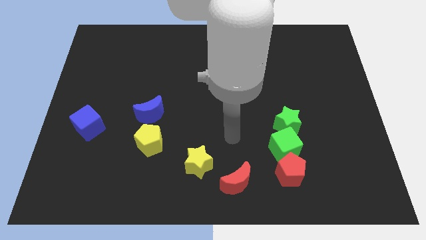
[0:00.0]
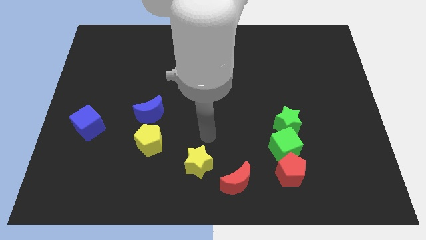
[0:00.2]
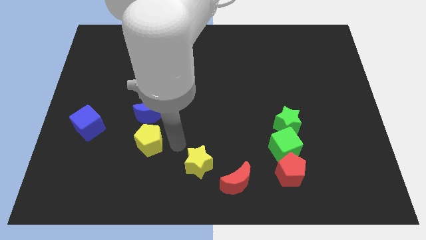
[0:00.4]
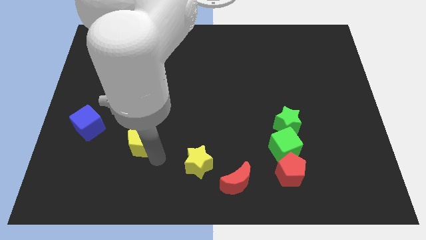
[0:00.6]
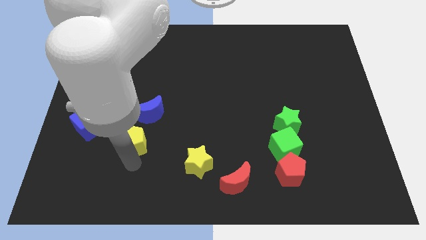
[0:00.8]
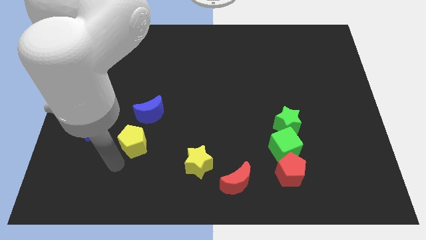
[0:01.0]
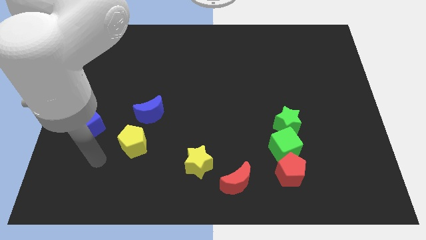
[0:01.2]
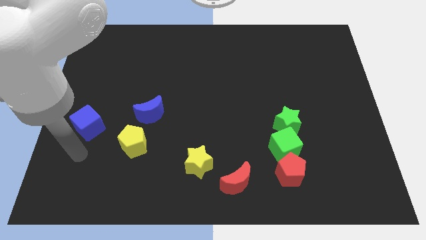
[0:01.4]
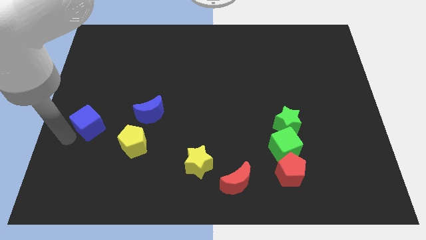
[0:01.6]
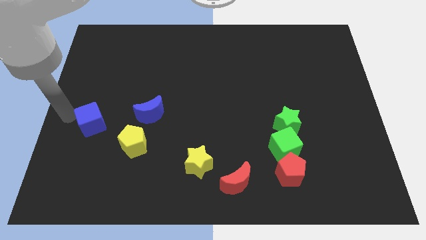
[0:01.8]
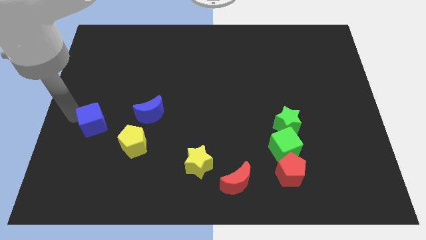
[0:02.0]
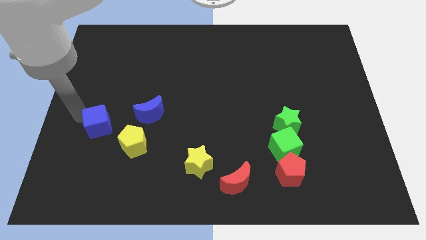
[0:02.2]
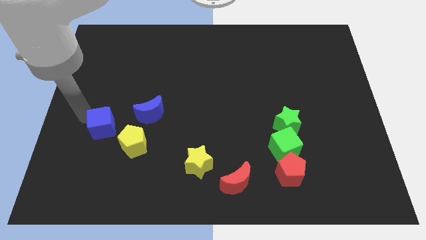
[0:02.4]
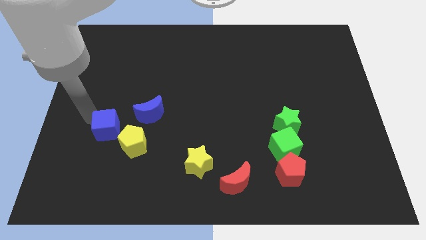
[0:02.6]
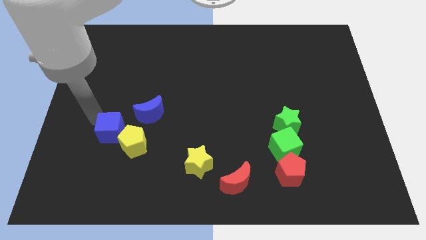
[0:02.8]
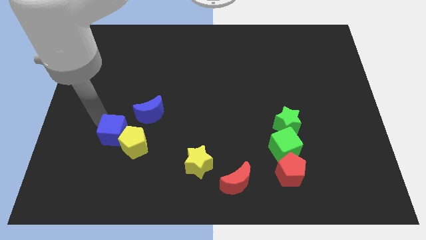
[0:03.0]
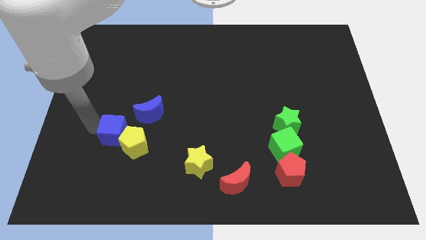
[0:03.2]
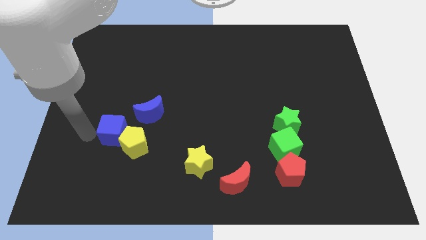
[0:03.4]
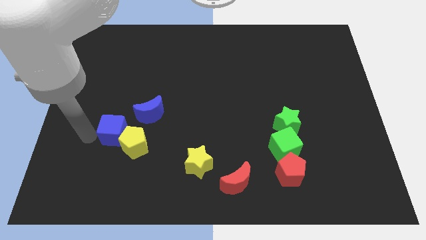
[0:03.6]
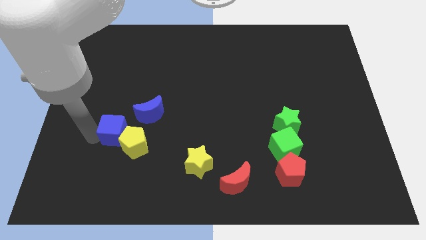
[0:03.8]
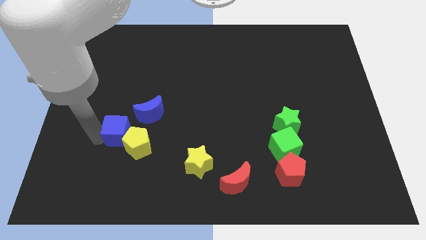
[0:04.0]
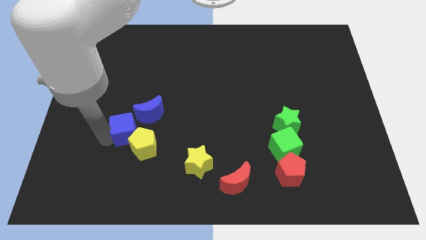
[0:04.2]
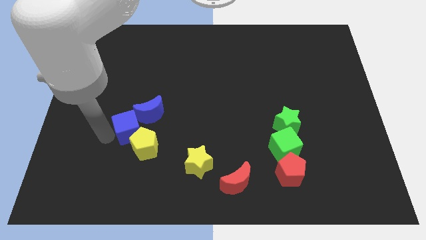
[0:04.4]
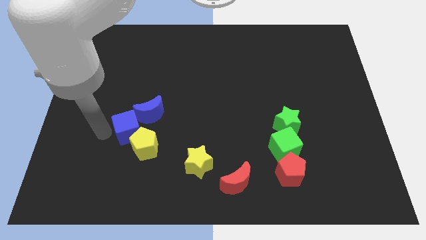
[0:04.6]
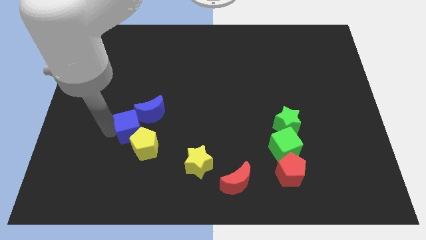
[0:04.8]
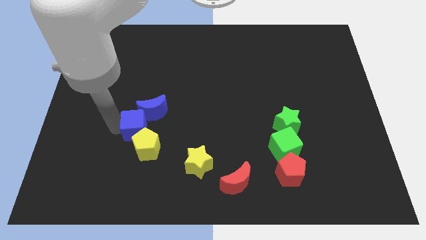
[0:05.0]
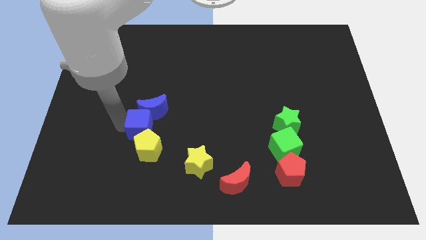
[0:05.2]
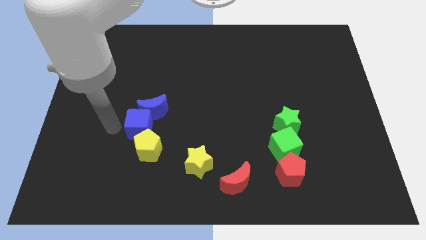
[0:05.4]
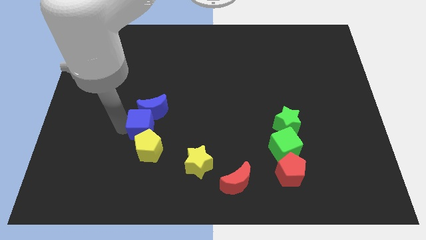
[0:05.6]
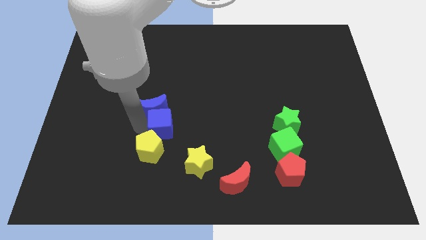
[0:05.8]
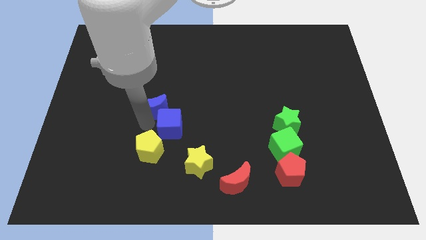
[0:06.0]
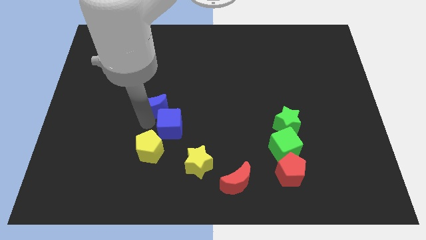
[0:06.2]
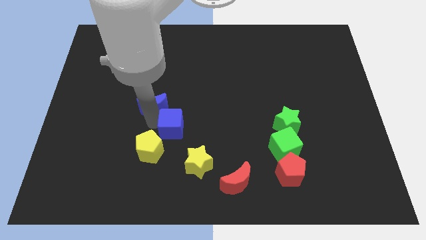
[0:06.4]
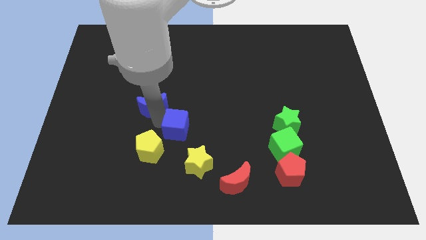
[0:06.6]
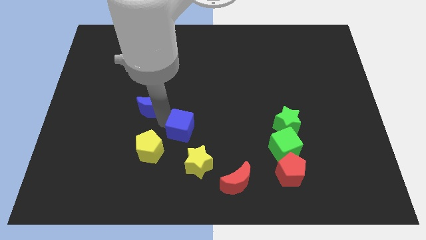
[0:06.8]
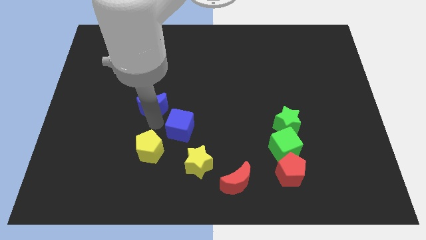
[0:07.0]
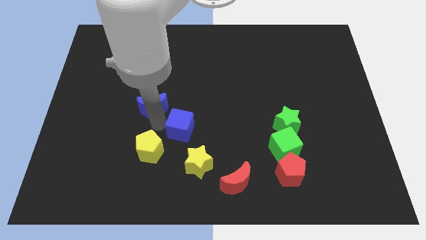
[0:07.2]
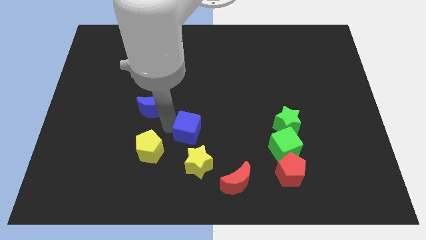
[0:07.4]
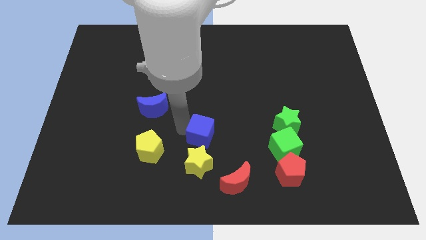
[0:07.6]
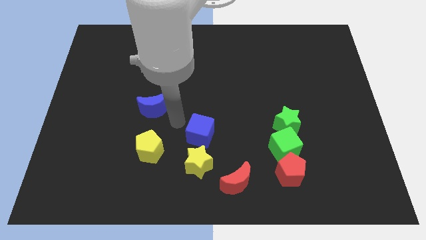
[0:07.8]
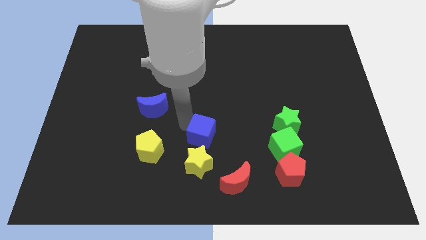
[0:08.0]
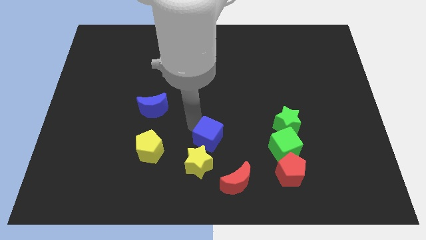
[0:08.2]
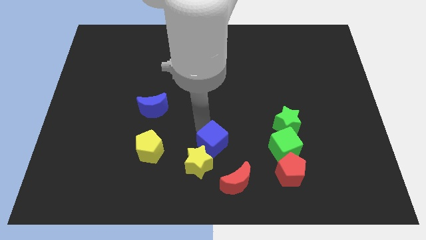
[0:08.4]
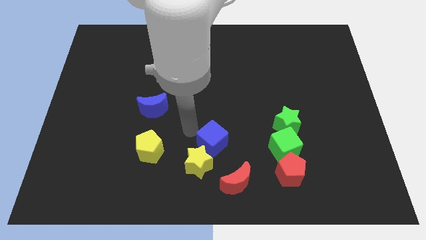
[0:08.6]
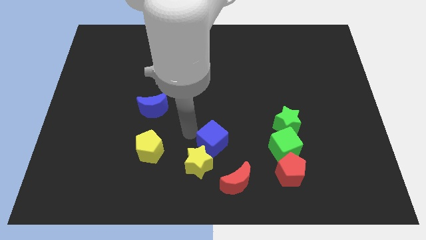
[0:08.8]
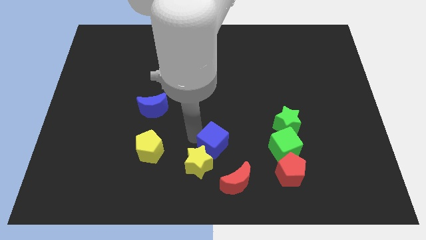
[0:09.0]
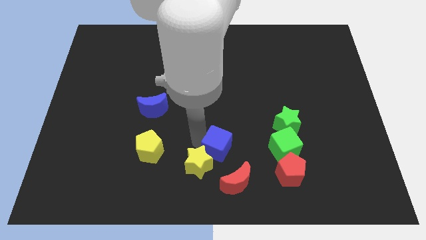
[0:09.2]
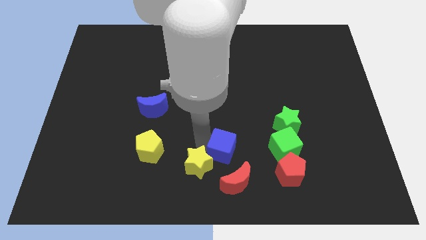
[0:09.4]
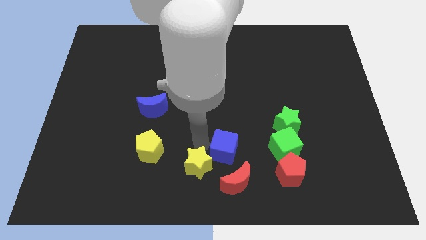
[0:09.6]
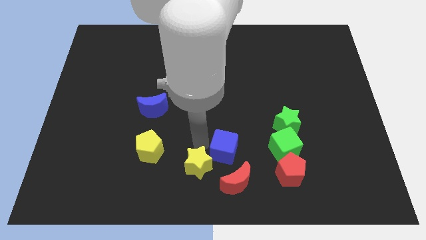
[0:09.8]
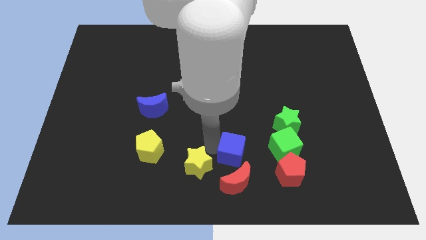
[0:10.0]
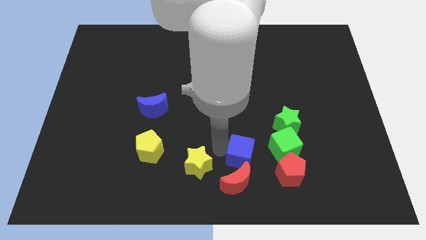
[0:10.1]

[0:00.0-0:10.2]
put the blue cube to the top right of the red moon

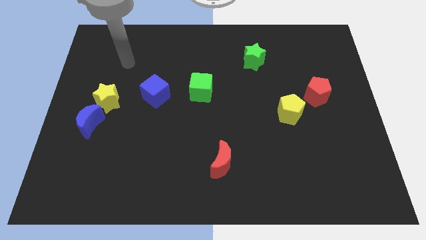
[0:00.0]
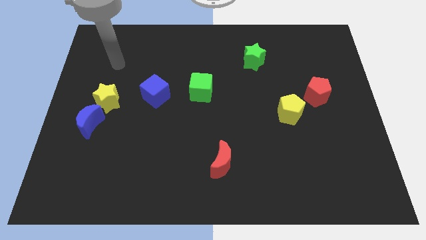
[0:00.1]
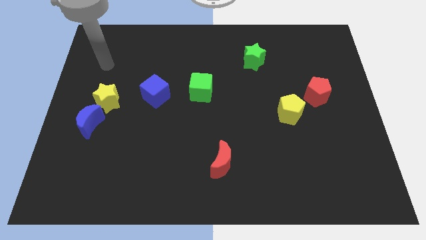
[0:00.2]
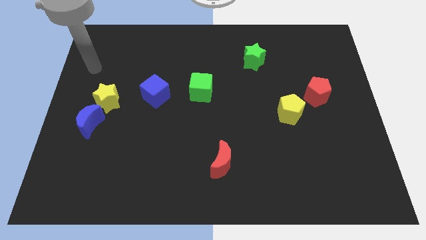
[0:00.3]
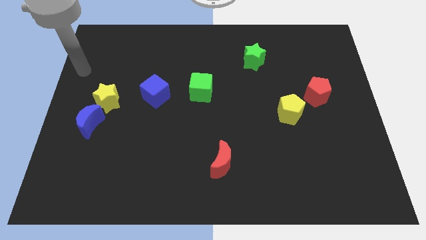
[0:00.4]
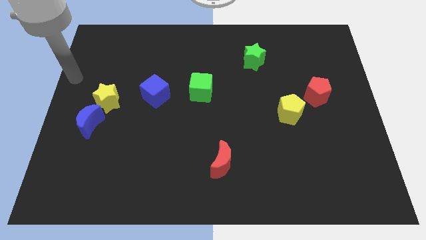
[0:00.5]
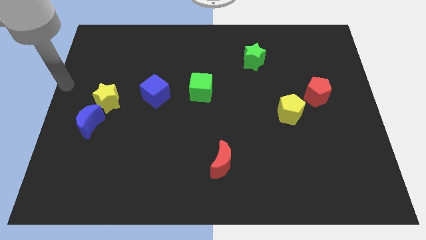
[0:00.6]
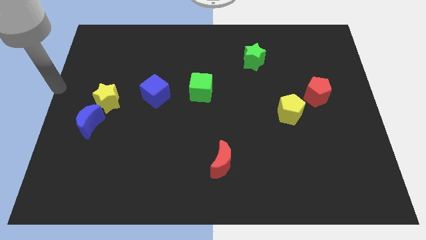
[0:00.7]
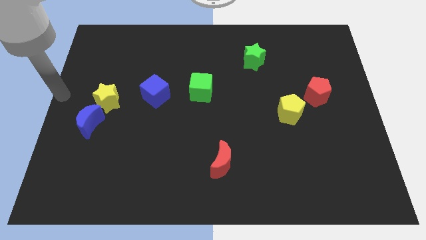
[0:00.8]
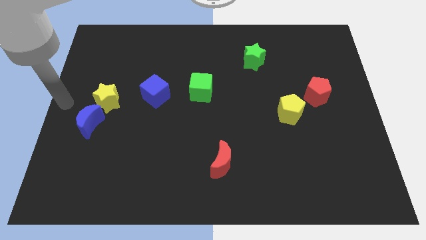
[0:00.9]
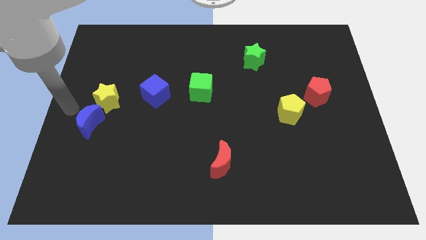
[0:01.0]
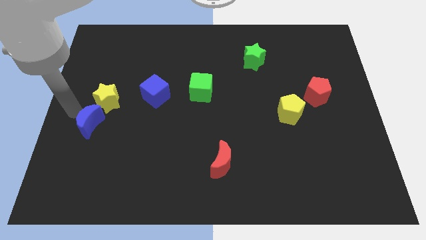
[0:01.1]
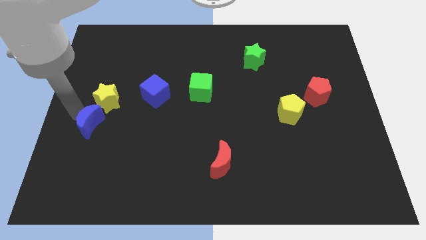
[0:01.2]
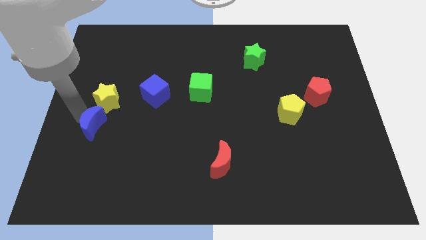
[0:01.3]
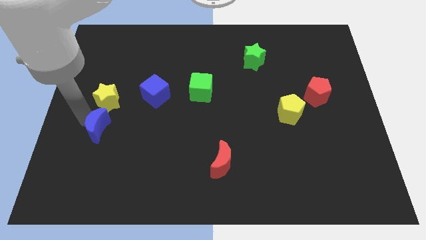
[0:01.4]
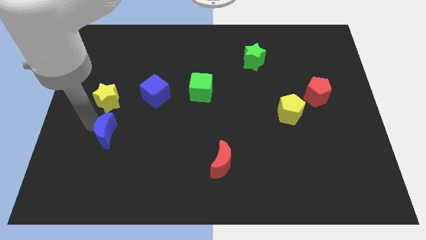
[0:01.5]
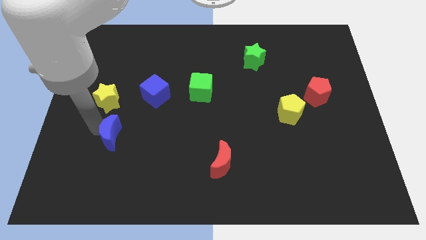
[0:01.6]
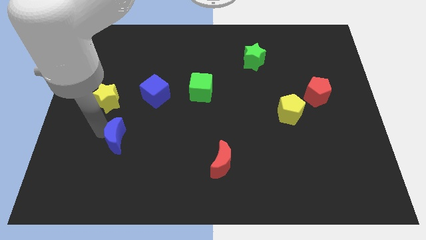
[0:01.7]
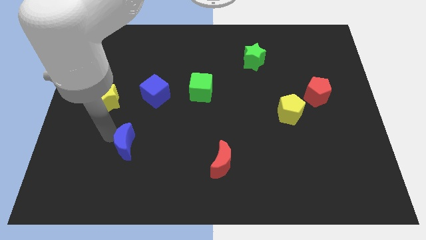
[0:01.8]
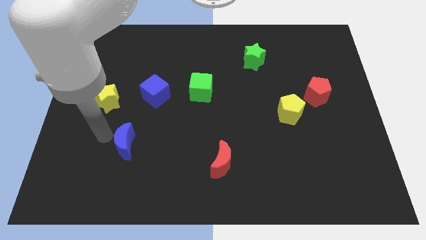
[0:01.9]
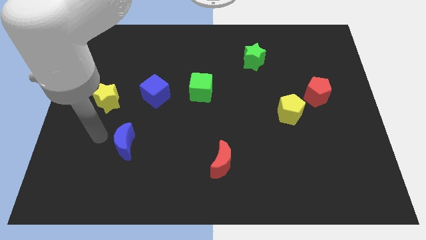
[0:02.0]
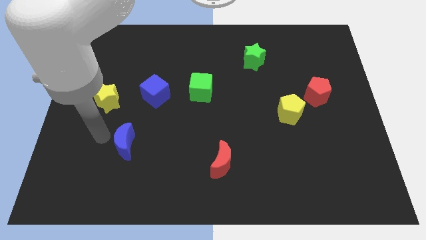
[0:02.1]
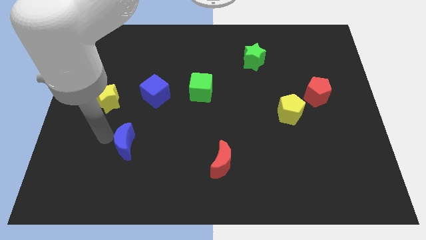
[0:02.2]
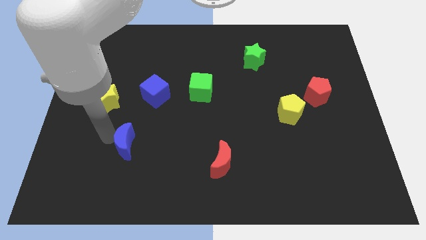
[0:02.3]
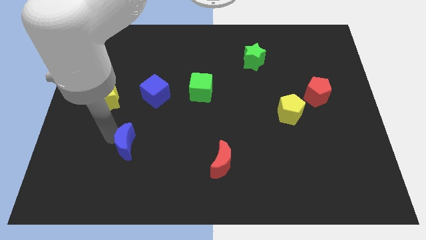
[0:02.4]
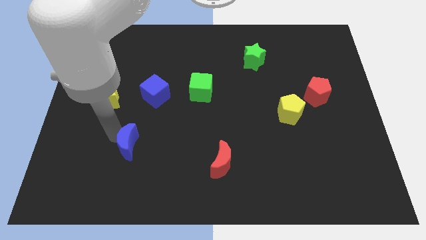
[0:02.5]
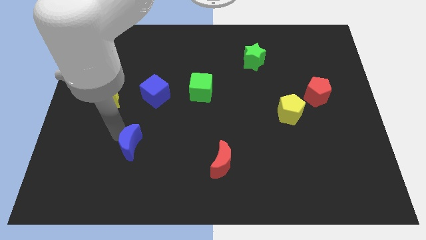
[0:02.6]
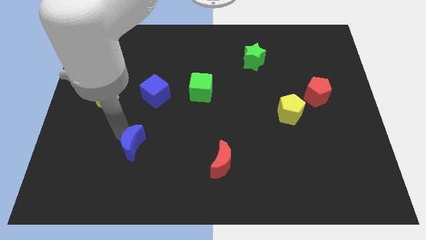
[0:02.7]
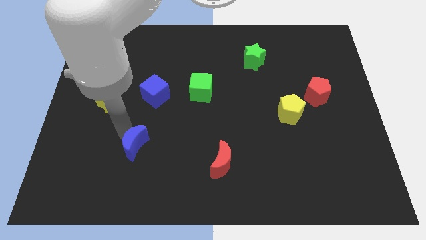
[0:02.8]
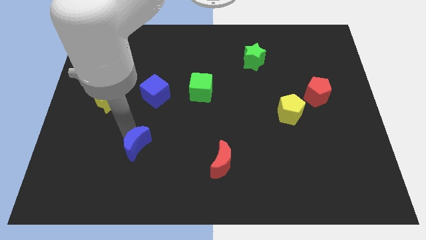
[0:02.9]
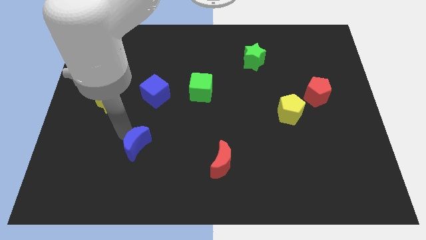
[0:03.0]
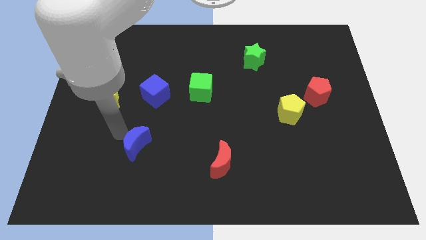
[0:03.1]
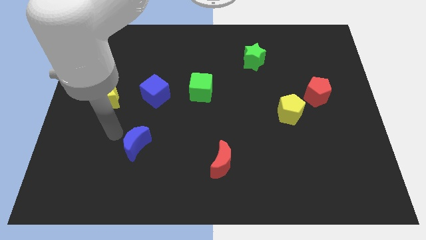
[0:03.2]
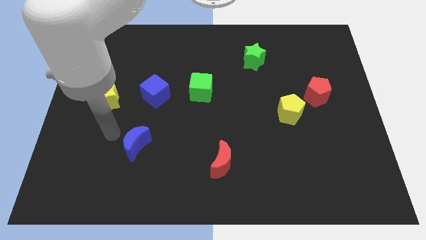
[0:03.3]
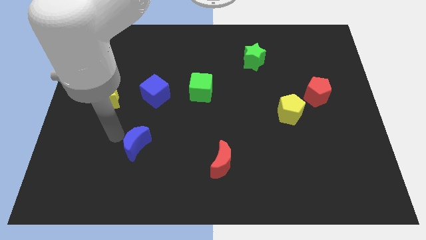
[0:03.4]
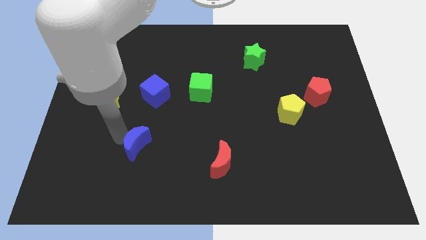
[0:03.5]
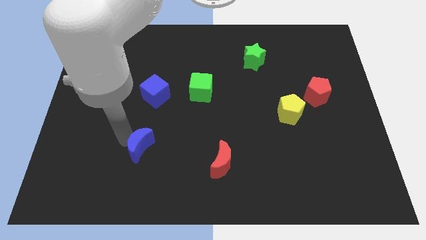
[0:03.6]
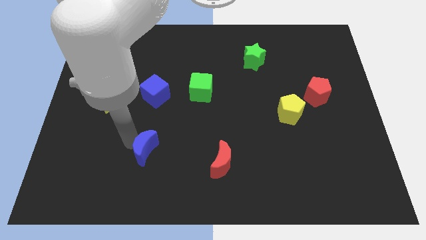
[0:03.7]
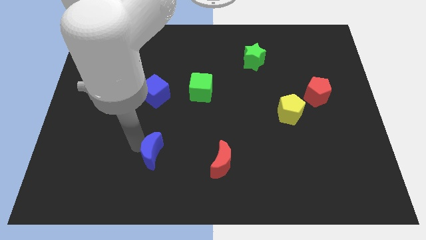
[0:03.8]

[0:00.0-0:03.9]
put the blue moon to the left of the red moon
